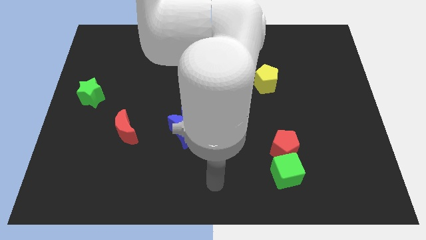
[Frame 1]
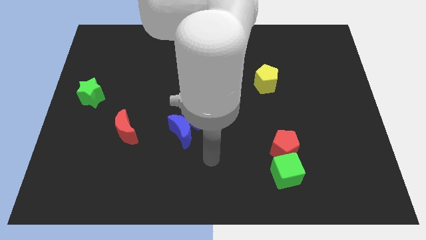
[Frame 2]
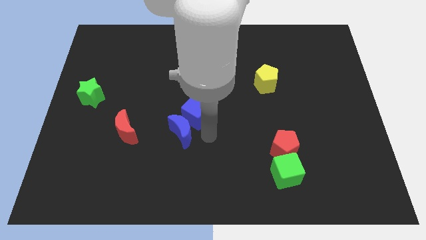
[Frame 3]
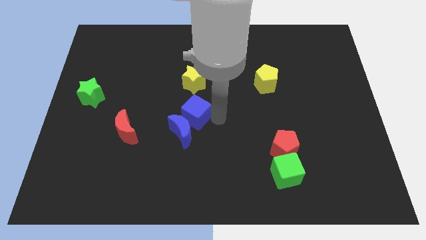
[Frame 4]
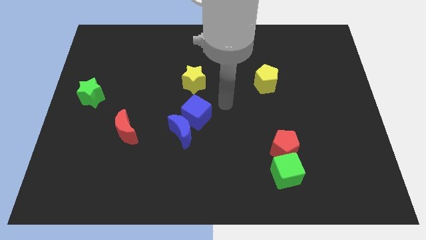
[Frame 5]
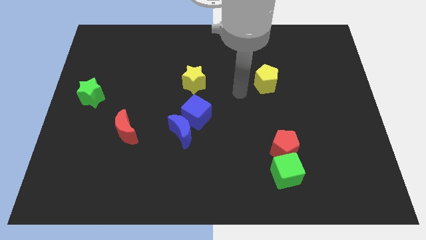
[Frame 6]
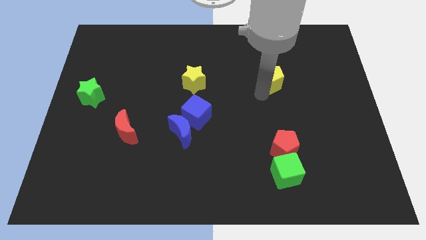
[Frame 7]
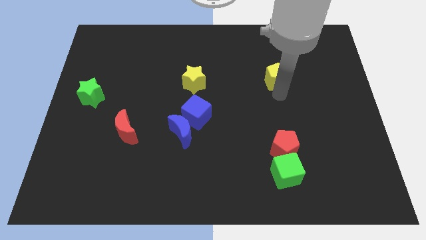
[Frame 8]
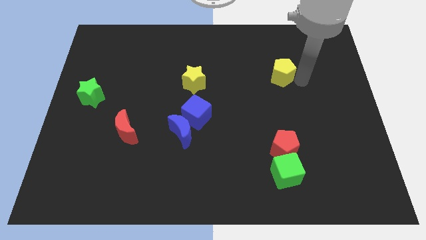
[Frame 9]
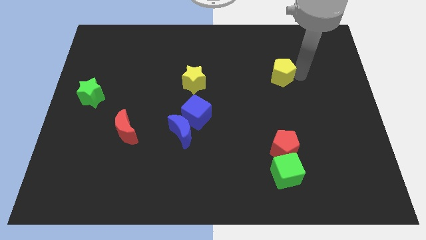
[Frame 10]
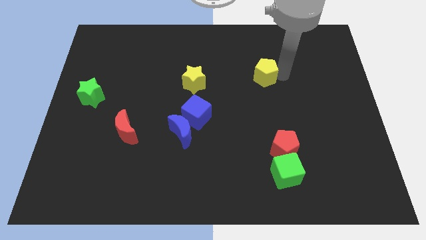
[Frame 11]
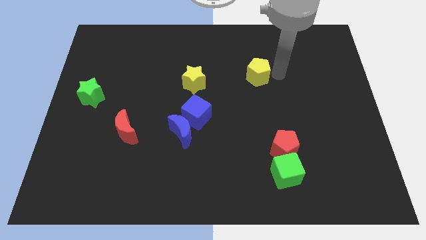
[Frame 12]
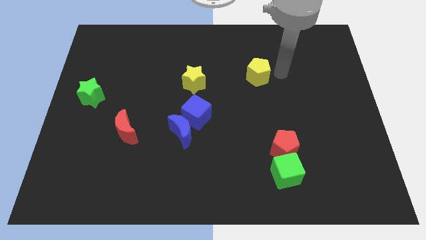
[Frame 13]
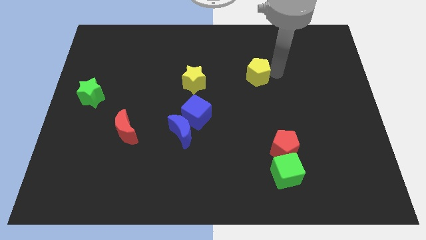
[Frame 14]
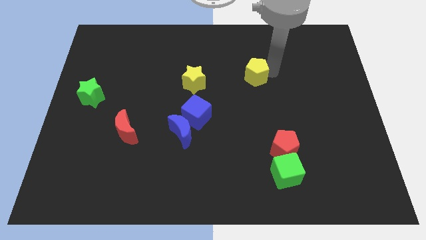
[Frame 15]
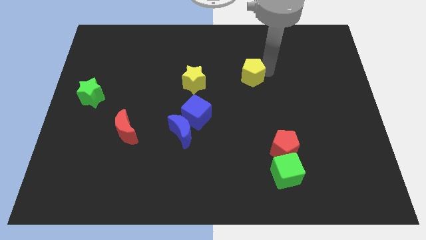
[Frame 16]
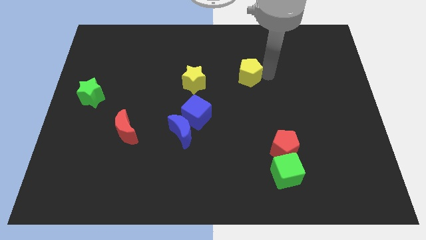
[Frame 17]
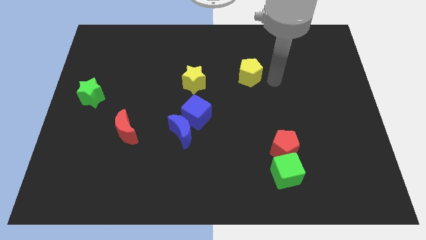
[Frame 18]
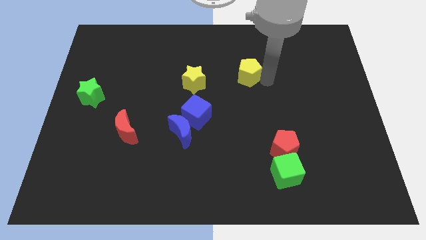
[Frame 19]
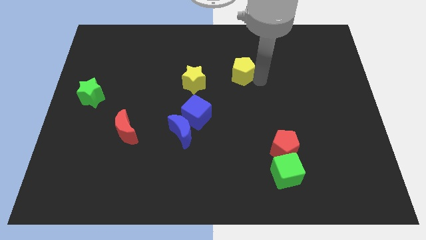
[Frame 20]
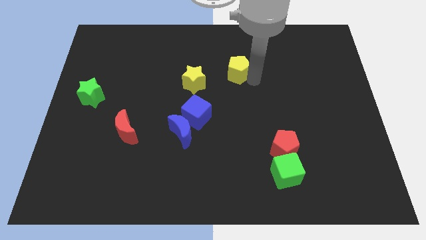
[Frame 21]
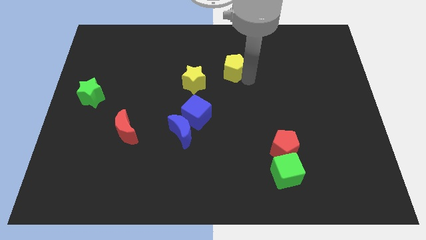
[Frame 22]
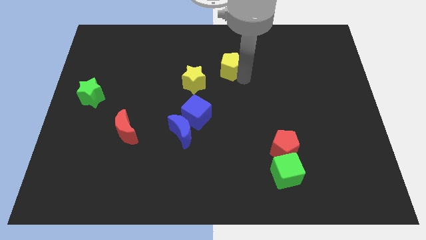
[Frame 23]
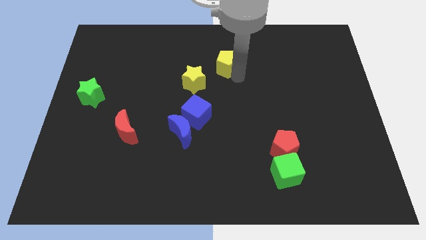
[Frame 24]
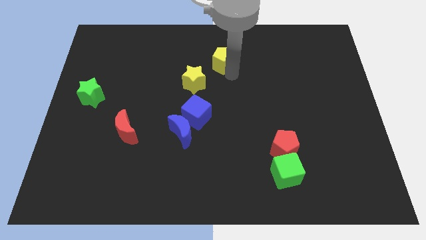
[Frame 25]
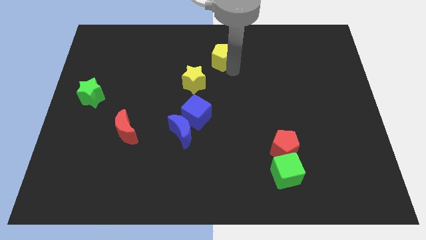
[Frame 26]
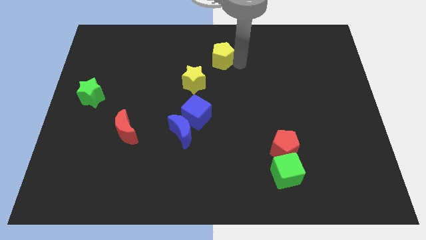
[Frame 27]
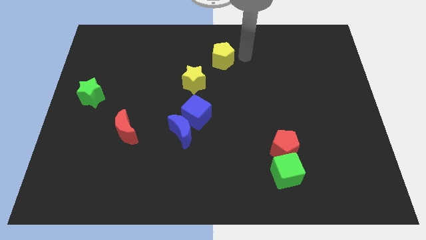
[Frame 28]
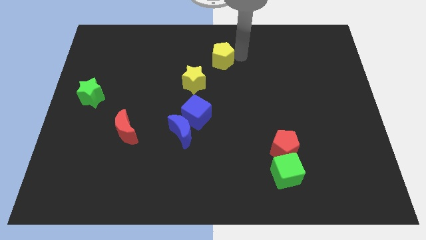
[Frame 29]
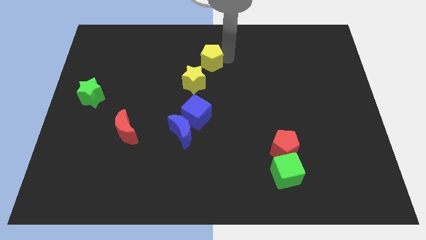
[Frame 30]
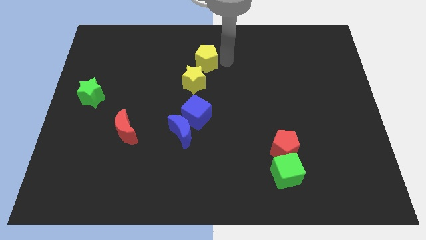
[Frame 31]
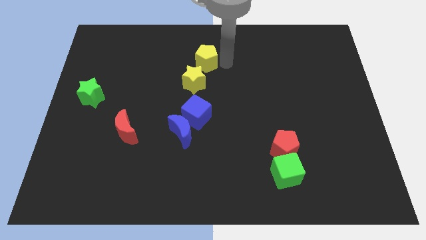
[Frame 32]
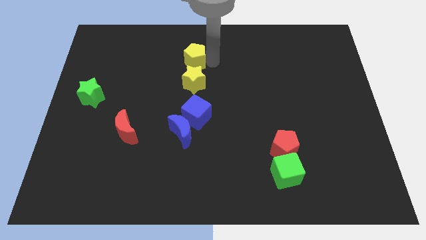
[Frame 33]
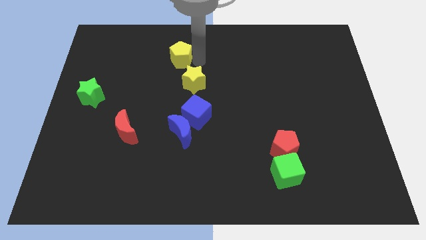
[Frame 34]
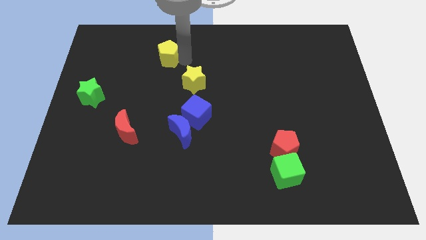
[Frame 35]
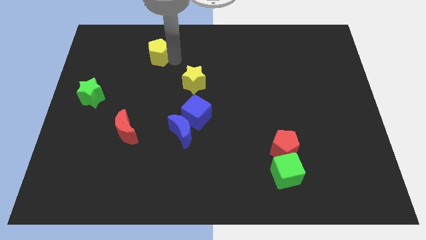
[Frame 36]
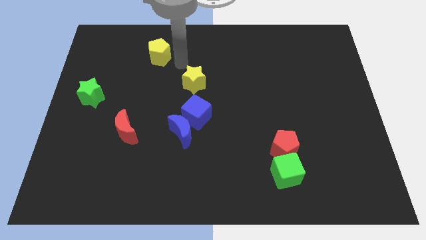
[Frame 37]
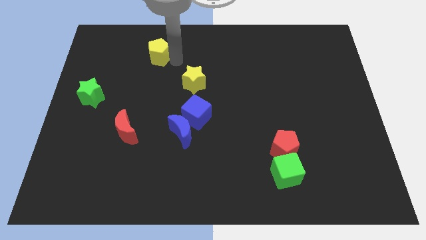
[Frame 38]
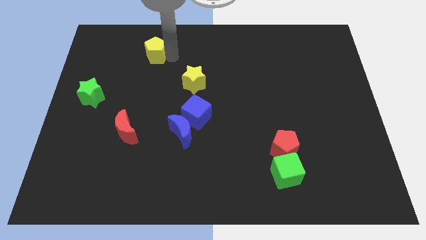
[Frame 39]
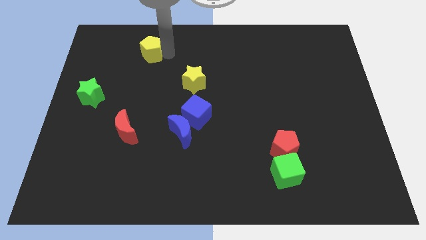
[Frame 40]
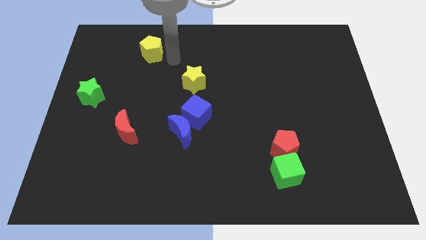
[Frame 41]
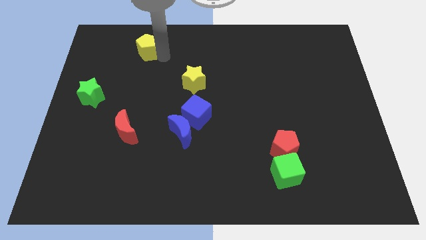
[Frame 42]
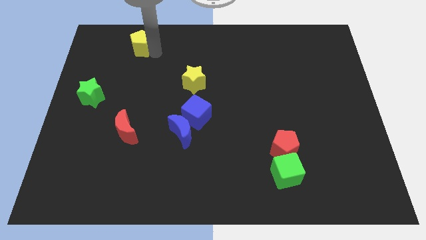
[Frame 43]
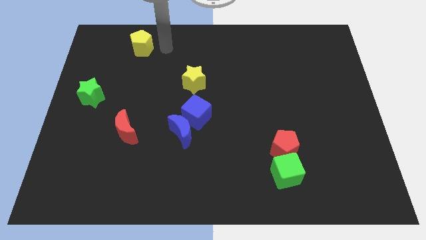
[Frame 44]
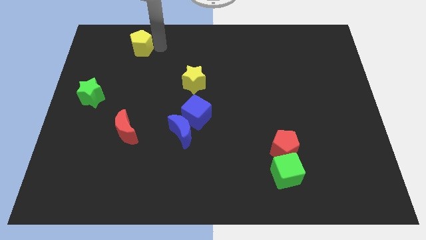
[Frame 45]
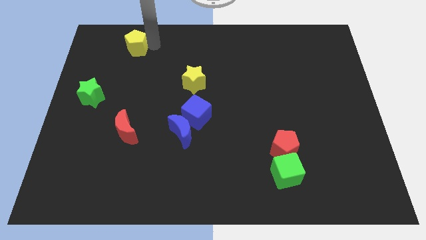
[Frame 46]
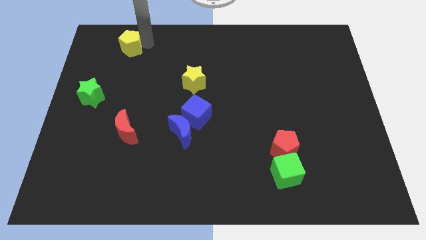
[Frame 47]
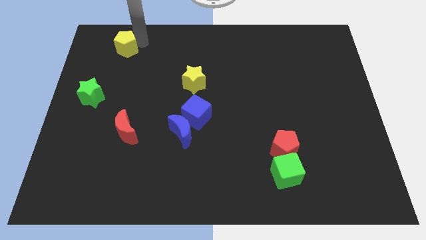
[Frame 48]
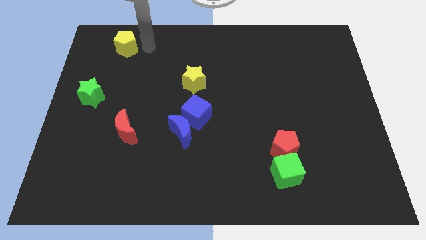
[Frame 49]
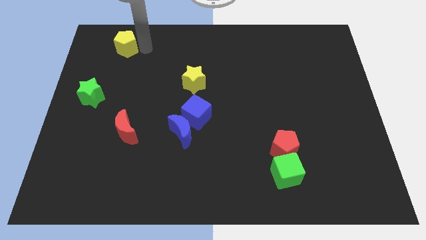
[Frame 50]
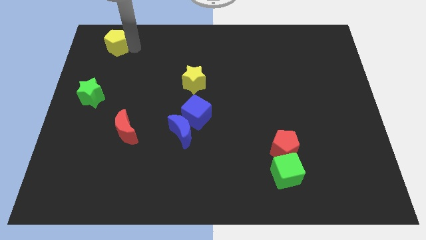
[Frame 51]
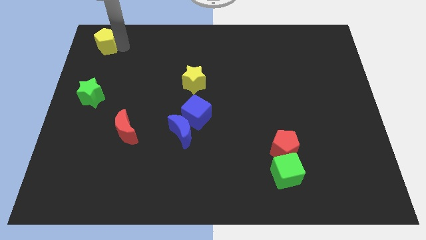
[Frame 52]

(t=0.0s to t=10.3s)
put the yellow pentagon to the top left
